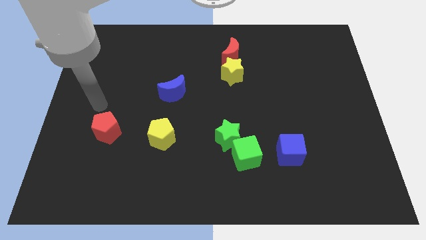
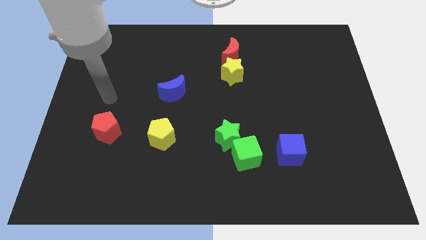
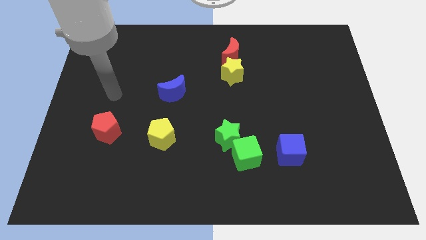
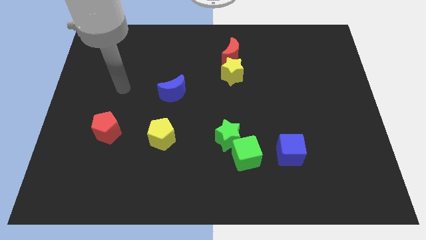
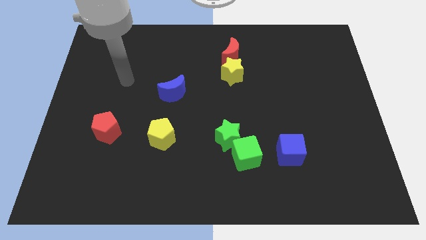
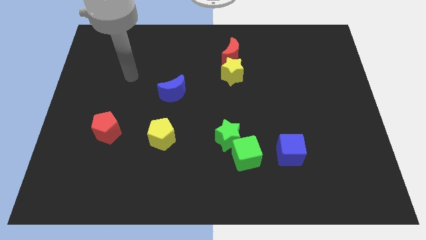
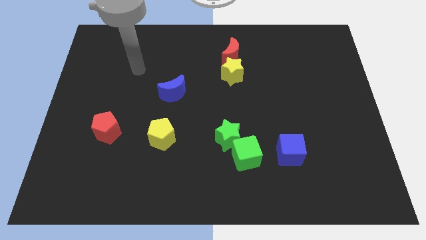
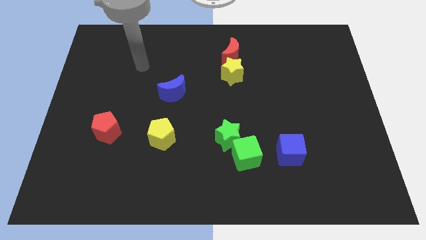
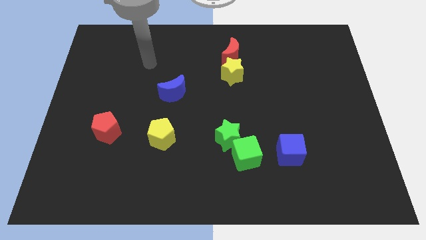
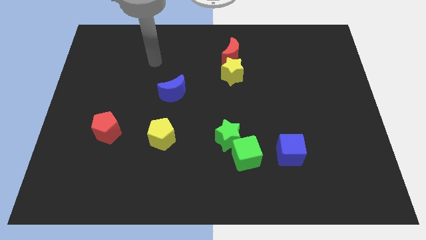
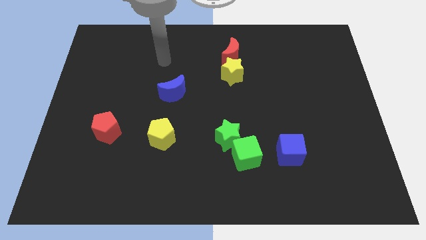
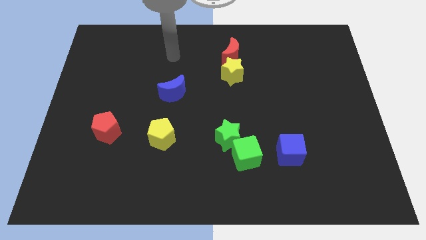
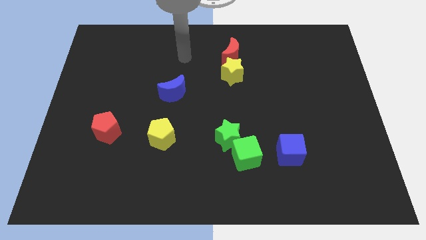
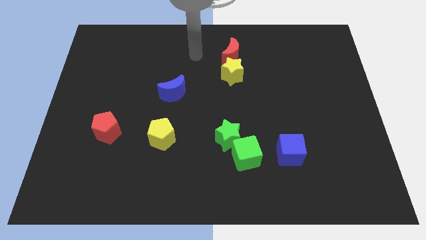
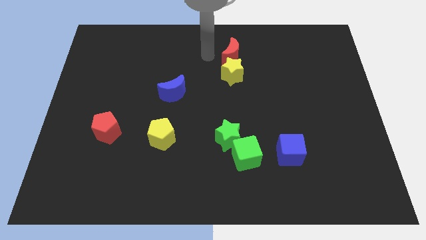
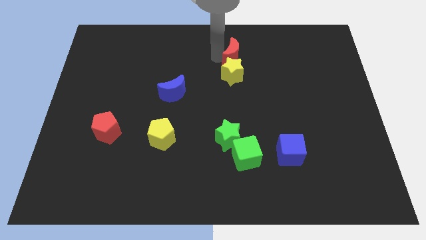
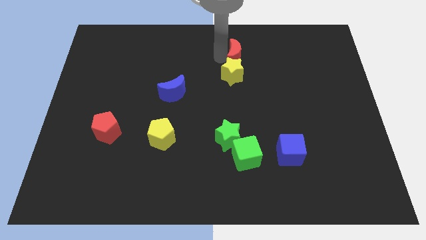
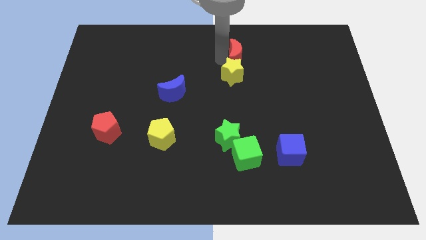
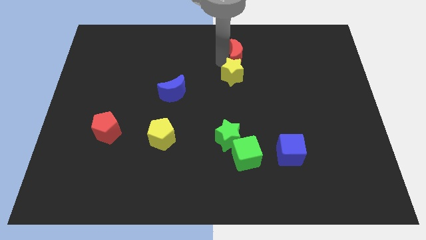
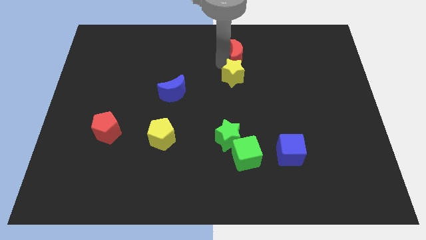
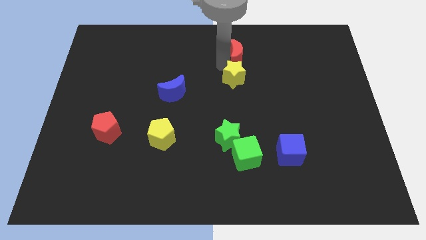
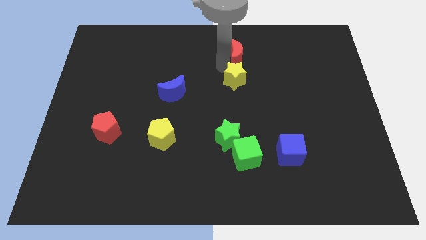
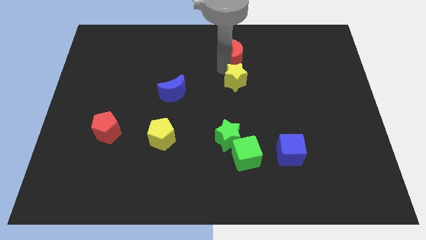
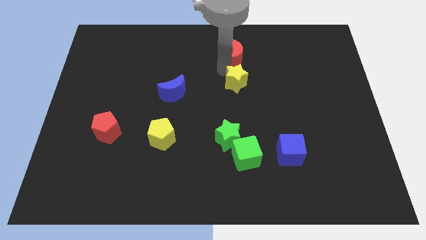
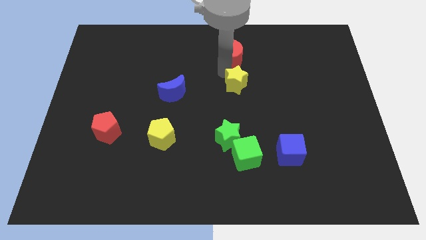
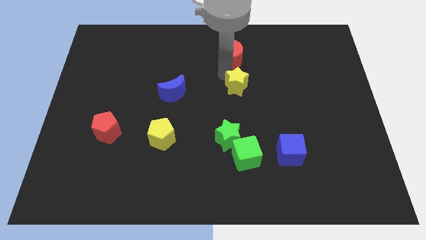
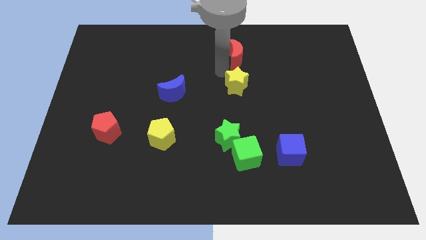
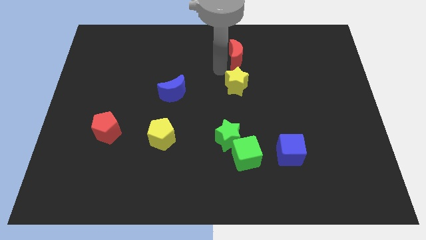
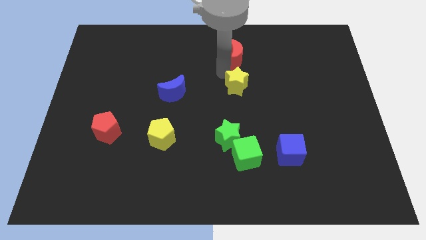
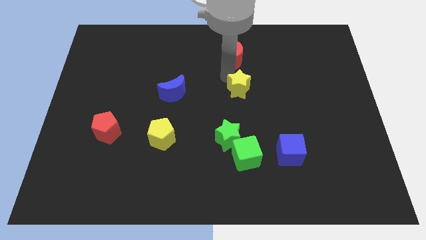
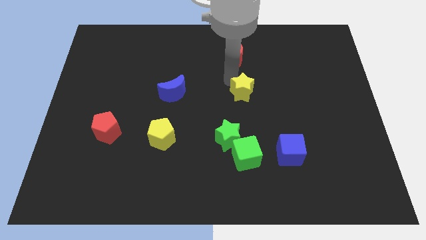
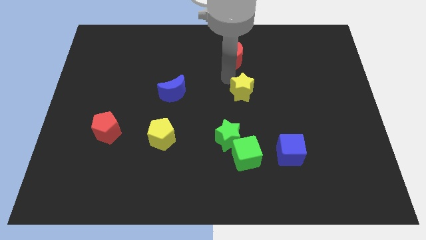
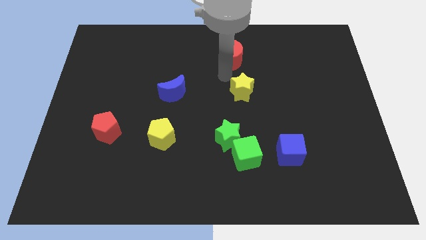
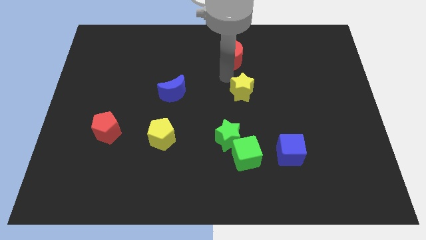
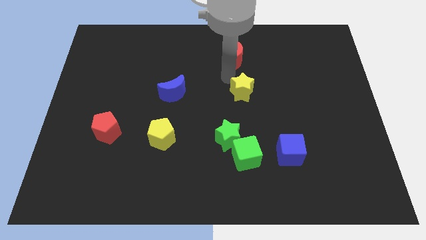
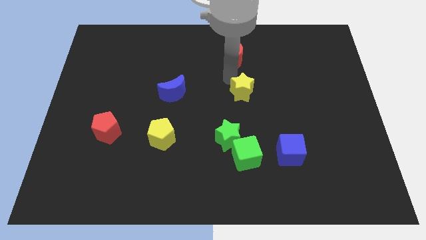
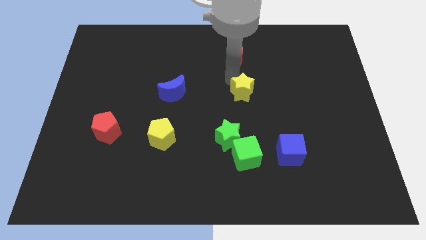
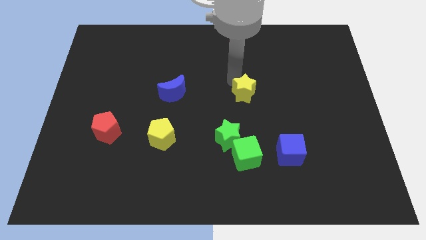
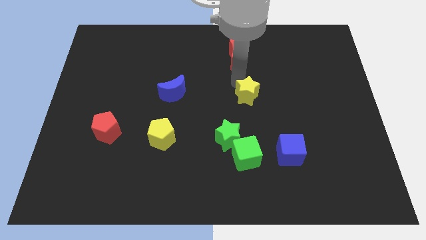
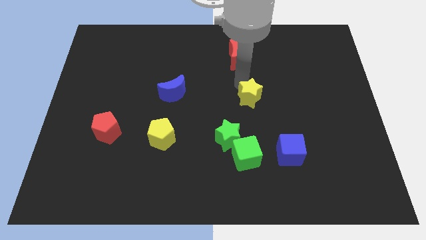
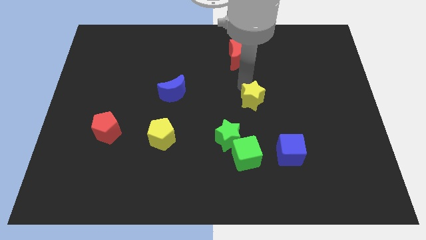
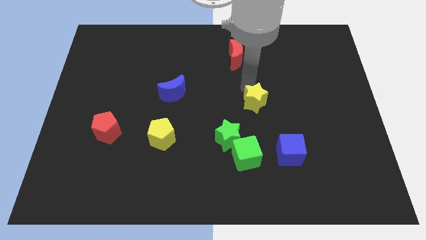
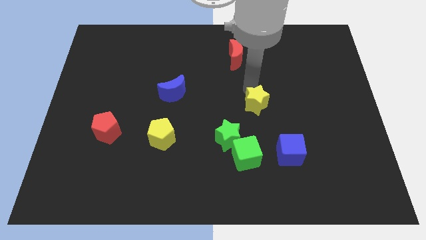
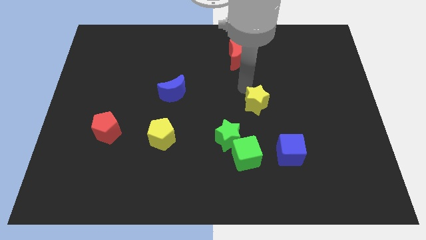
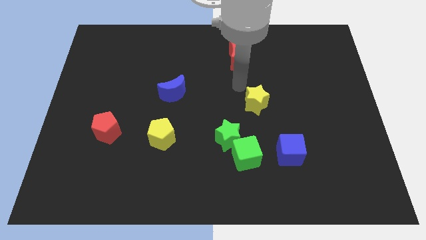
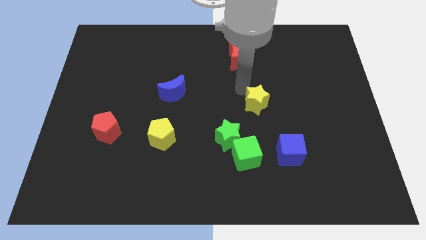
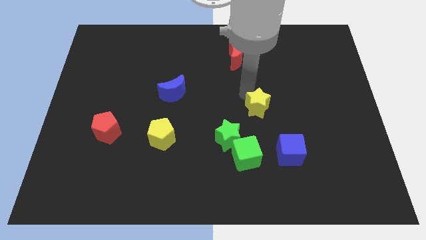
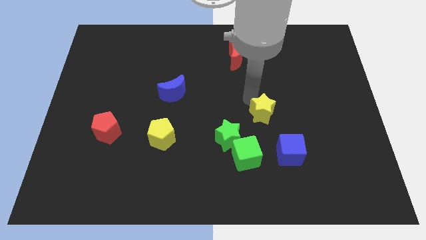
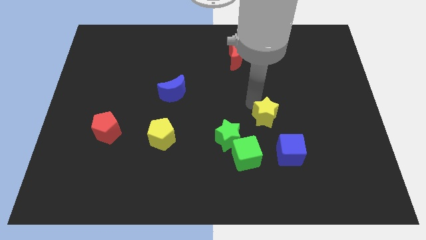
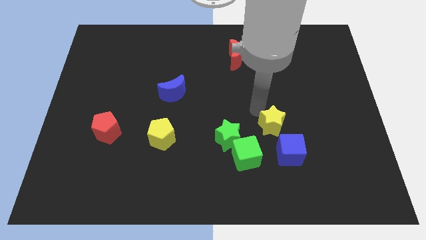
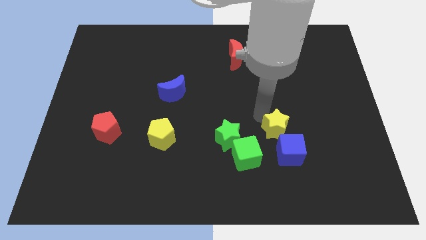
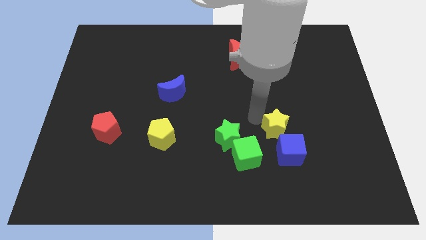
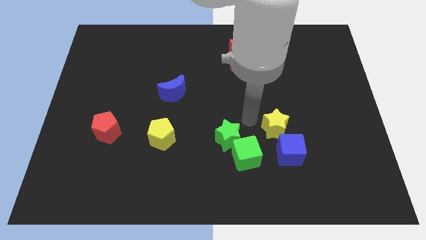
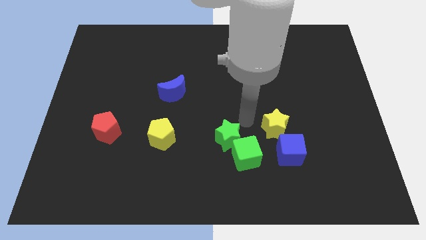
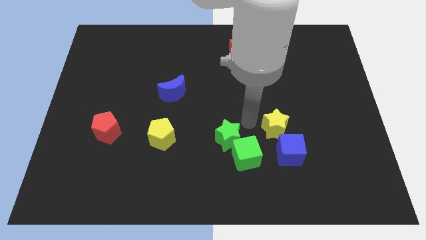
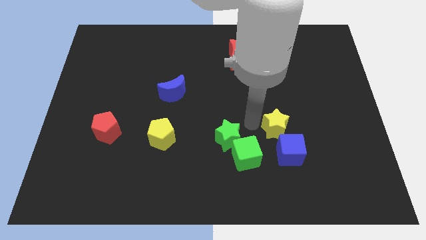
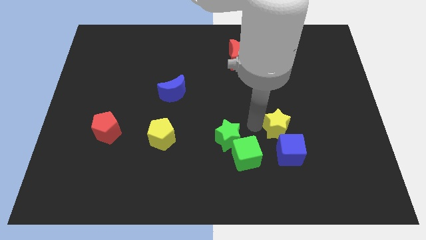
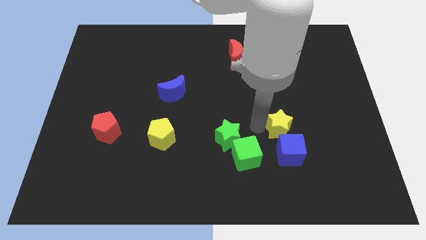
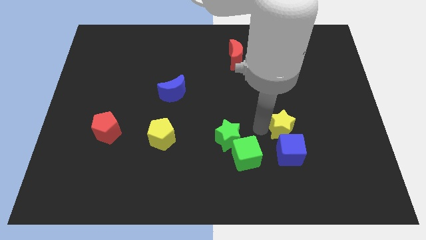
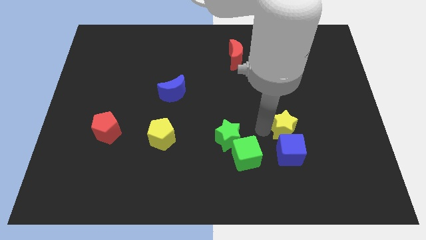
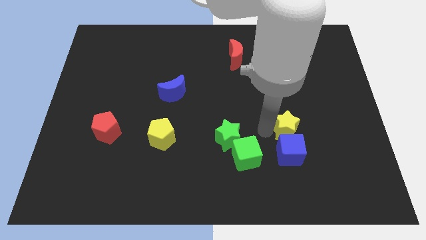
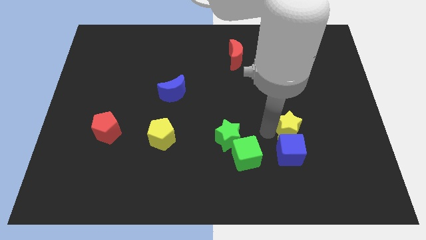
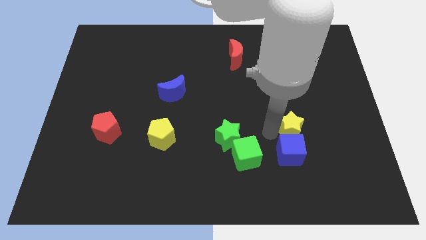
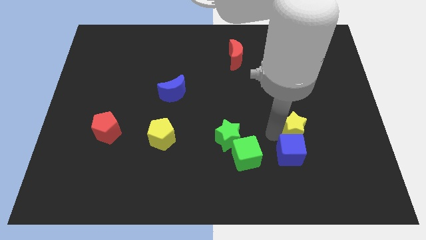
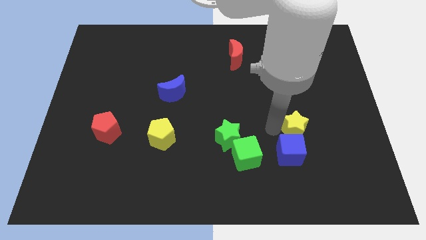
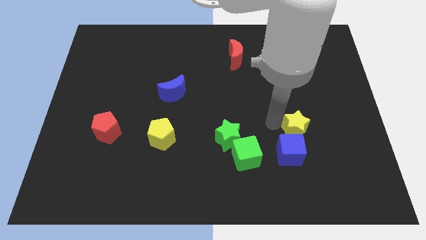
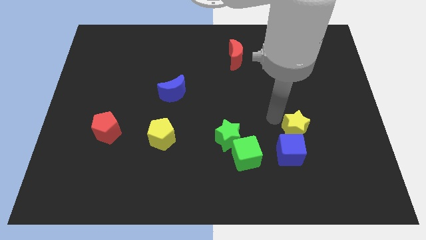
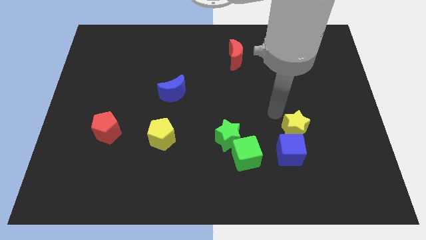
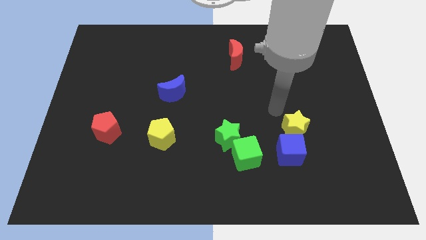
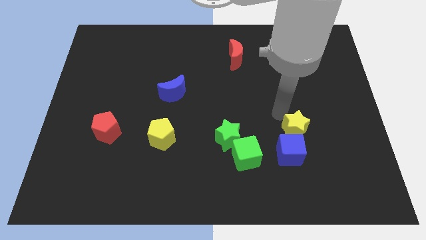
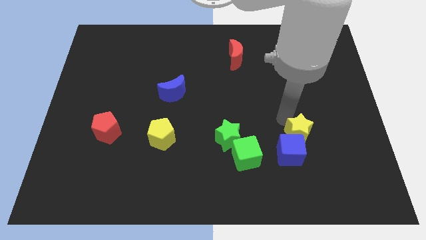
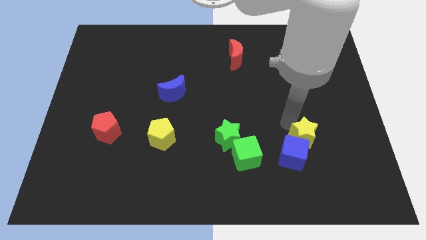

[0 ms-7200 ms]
put the yellow star right of the green cube
